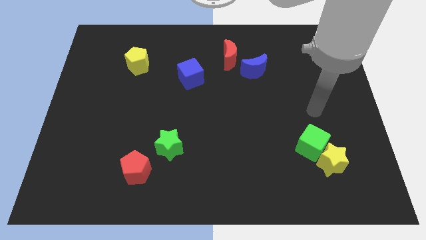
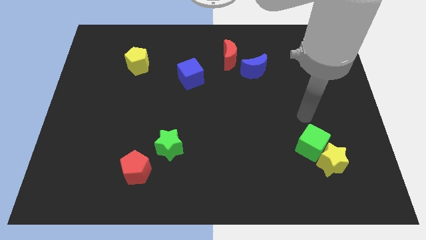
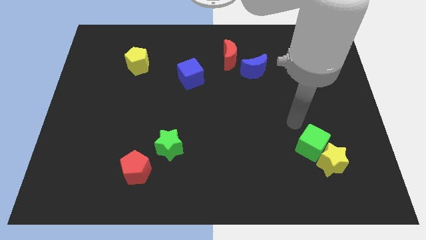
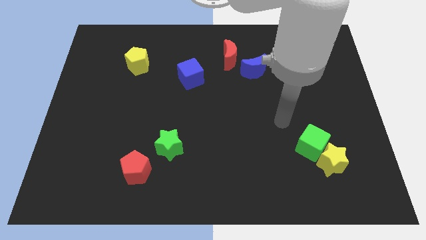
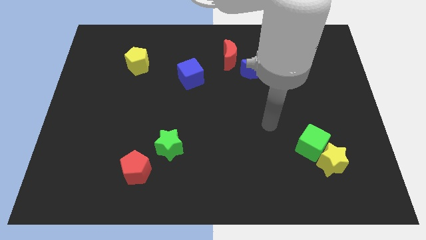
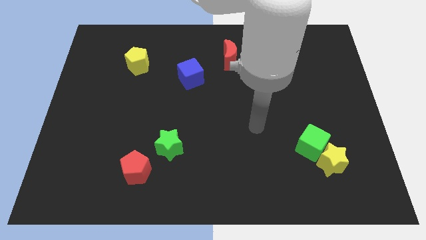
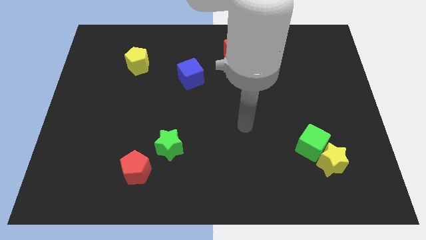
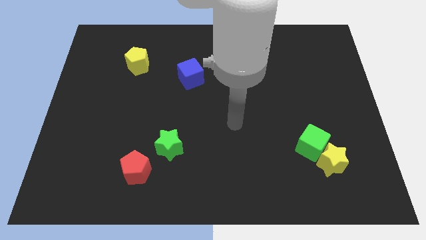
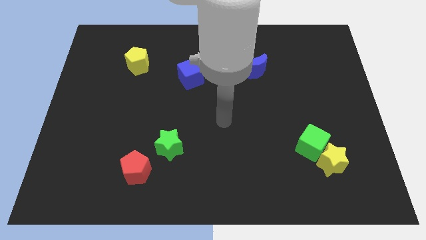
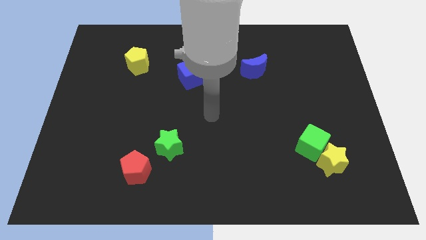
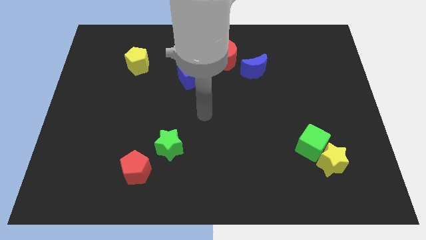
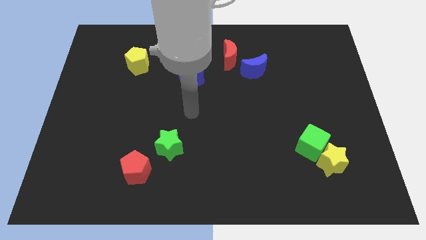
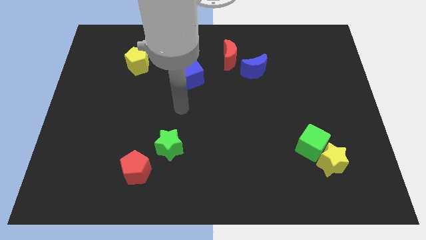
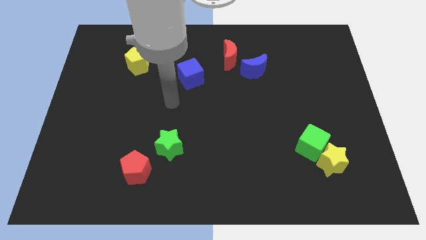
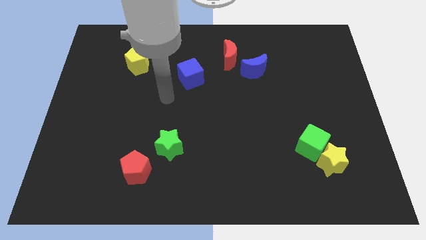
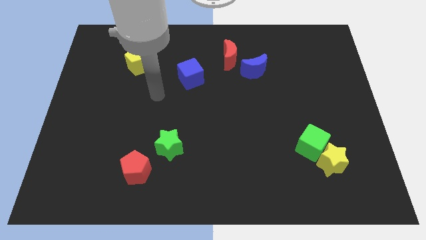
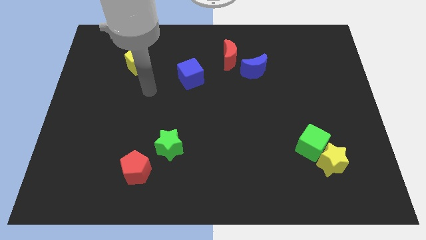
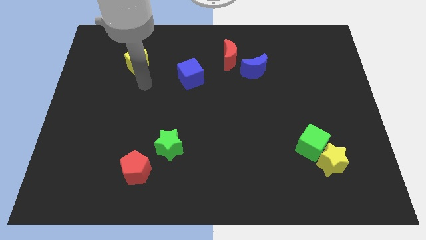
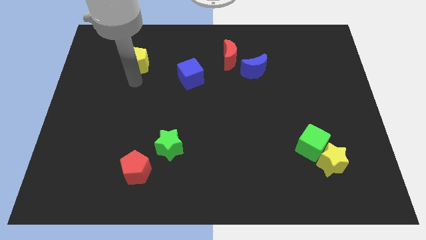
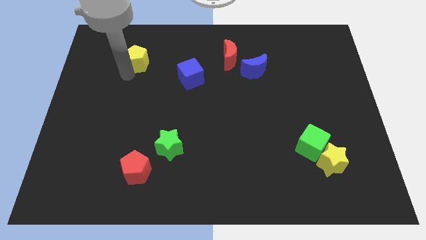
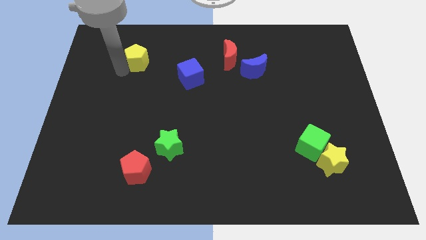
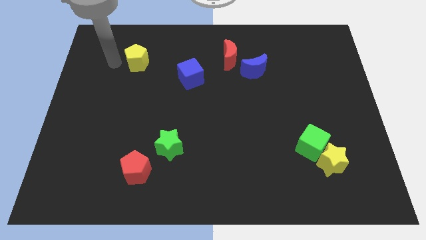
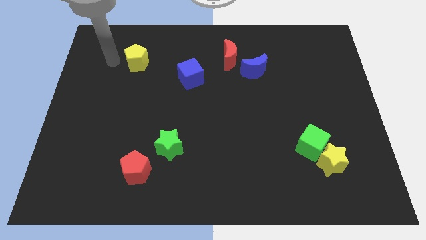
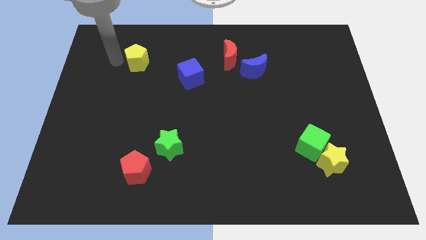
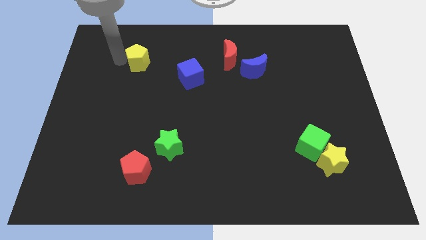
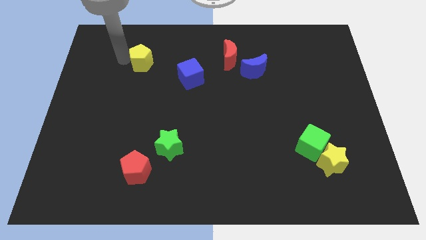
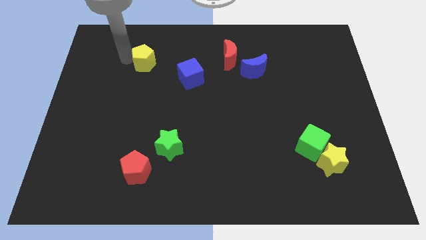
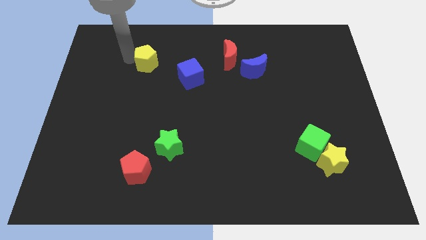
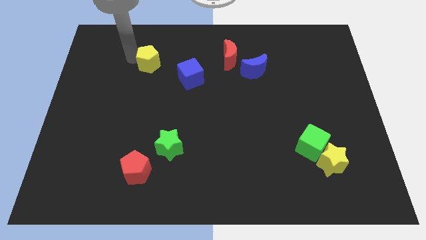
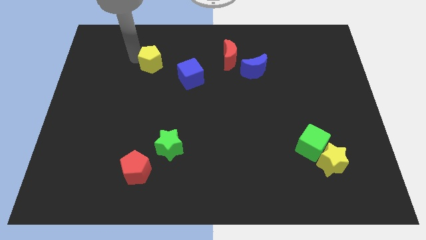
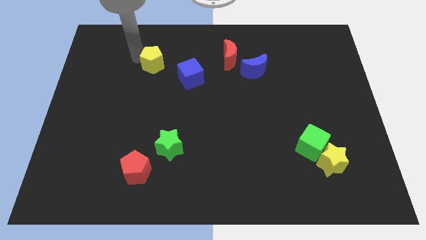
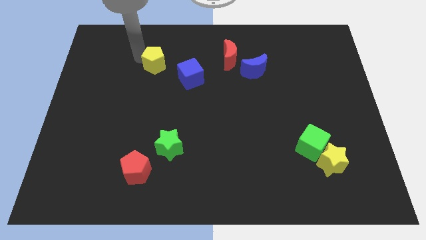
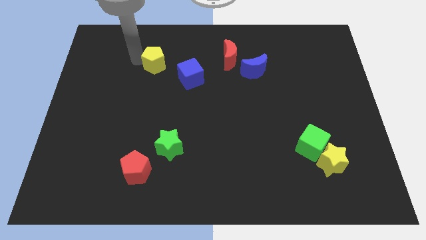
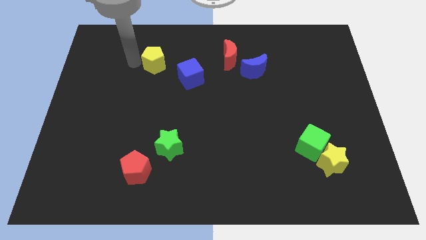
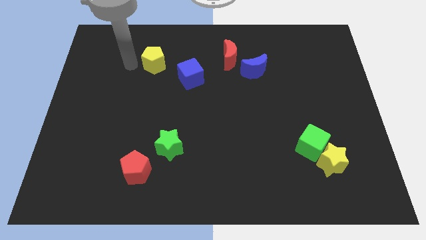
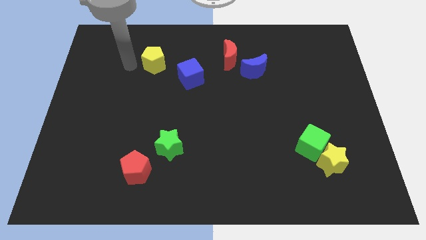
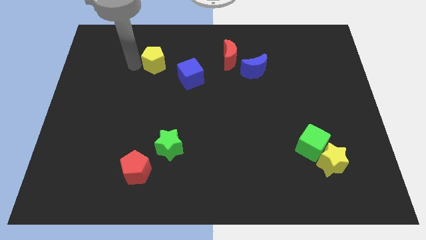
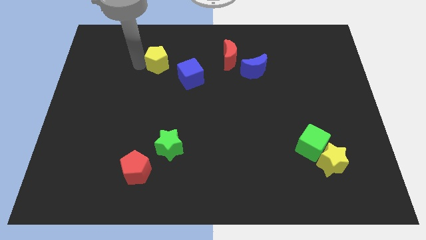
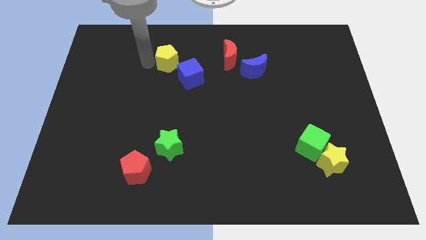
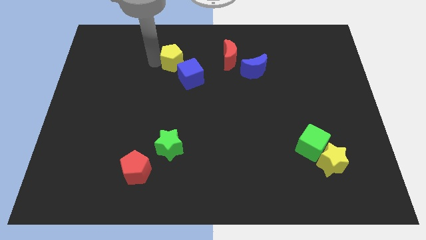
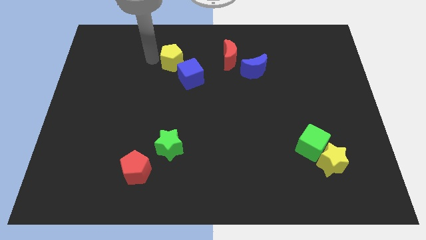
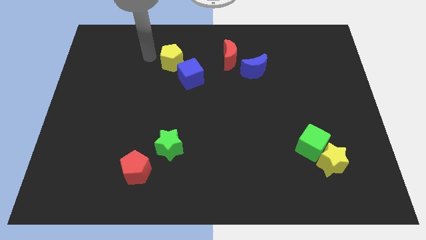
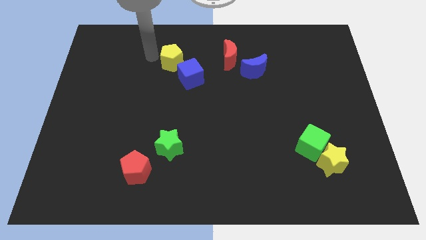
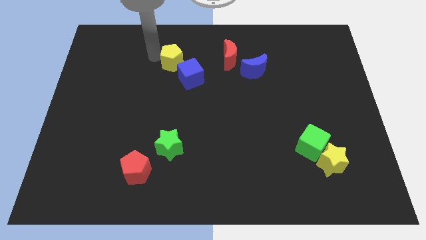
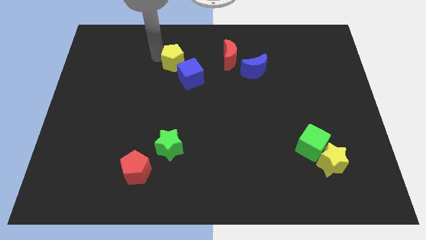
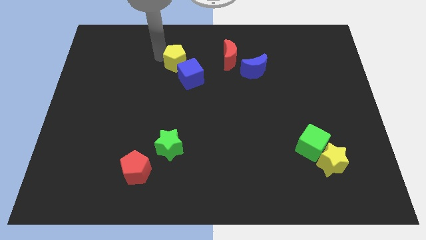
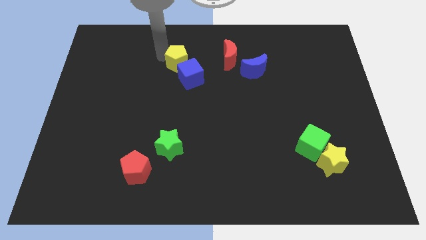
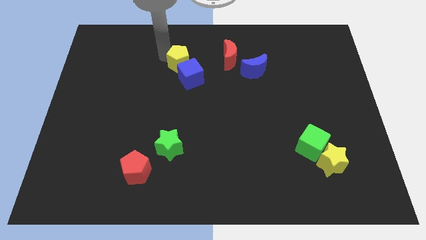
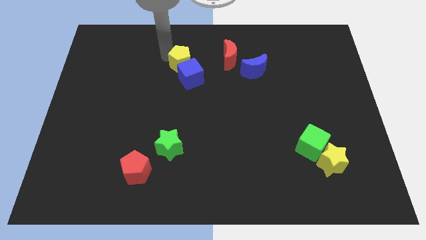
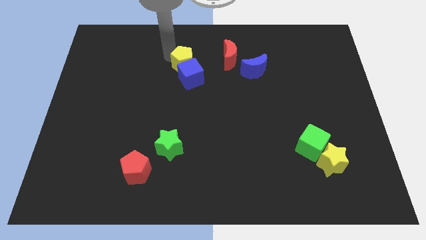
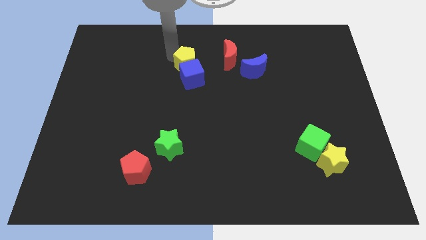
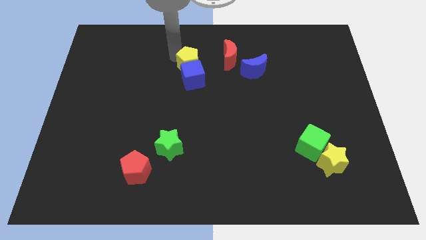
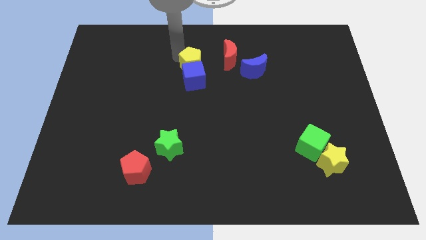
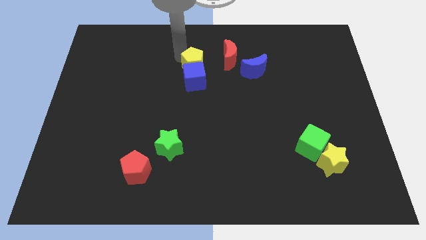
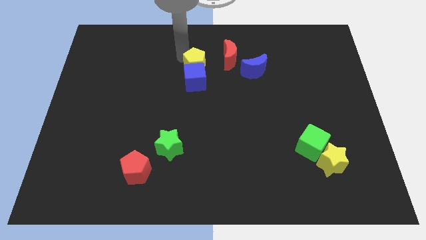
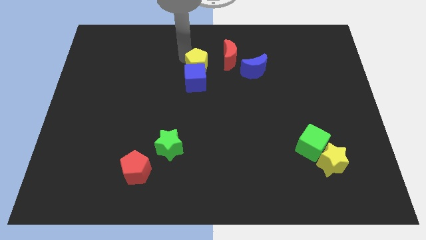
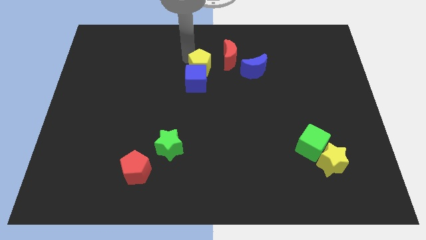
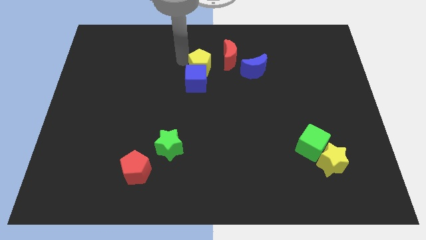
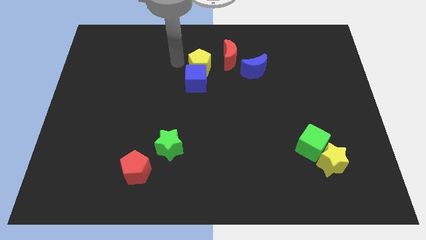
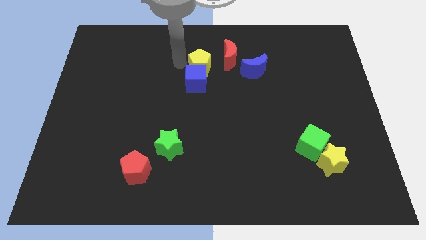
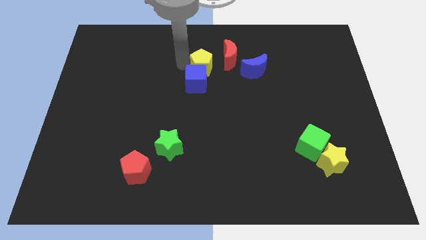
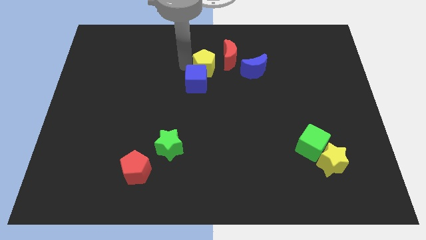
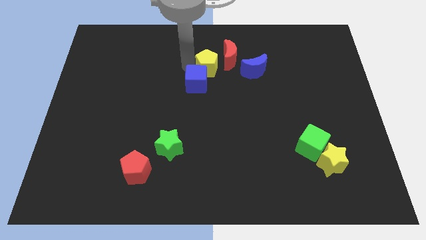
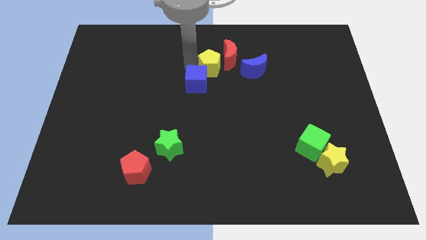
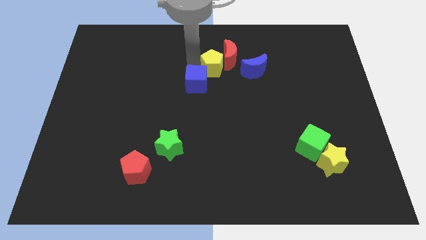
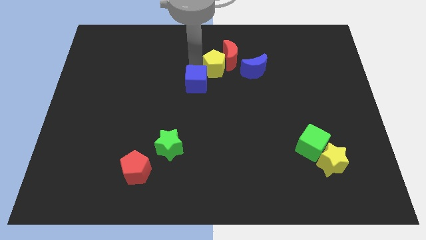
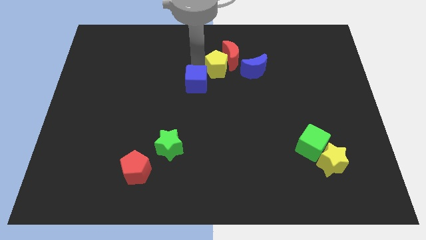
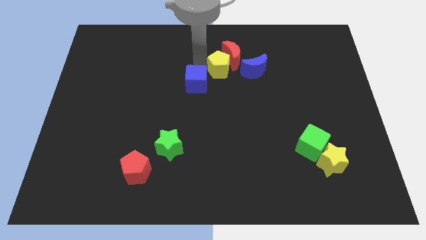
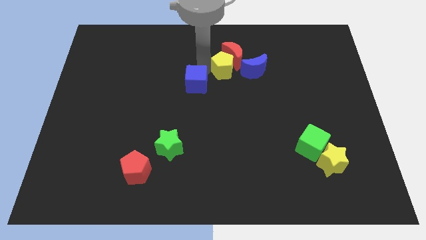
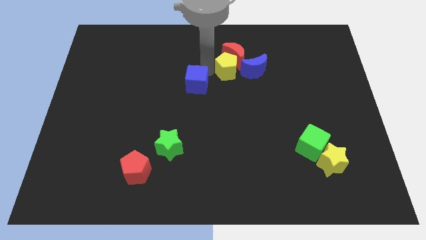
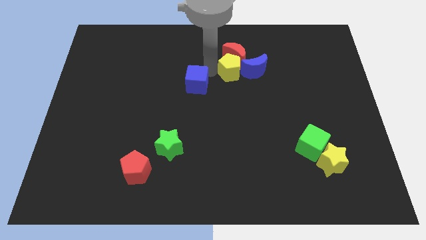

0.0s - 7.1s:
push the yellow pentagon next to the blue moon
